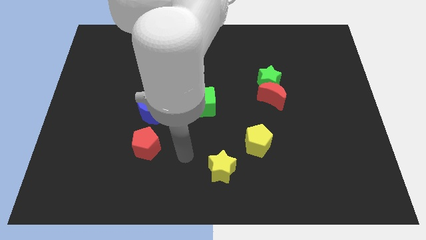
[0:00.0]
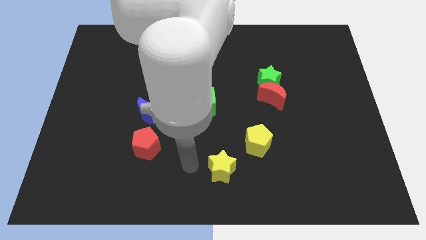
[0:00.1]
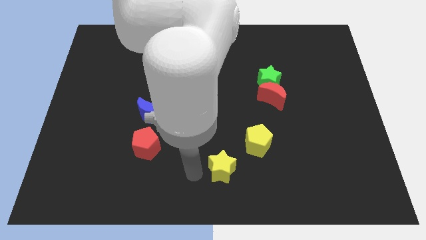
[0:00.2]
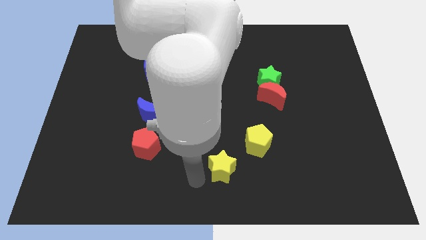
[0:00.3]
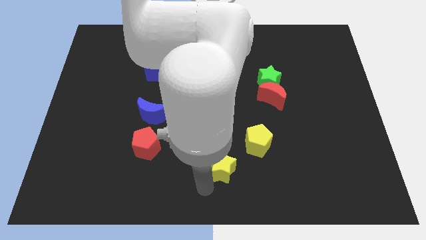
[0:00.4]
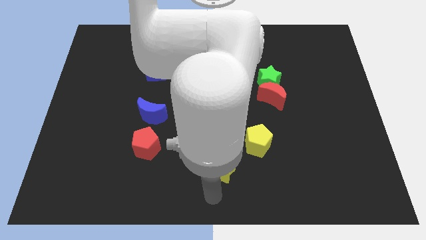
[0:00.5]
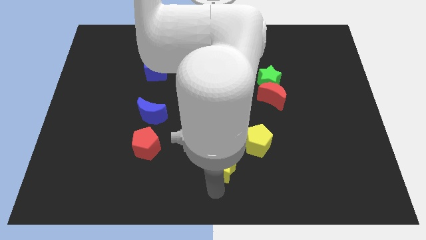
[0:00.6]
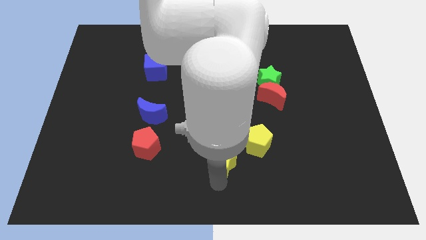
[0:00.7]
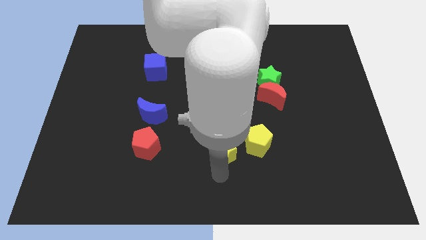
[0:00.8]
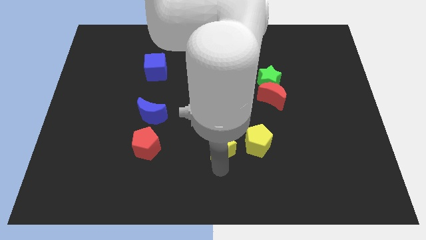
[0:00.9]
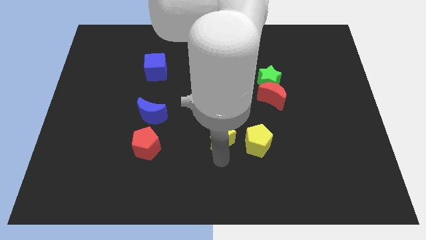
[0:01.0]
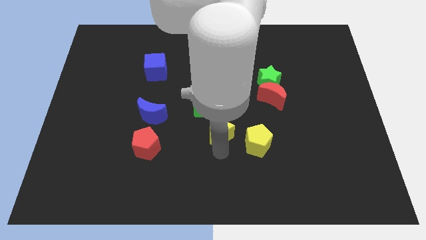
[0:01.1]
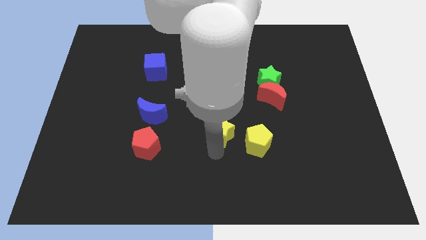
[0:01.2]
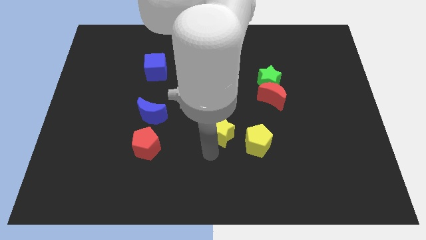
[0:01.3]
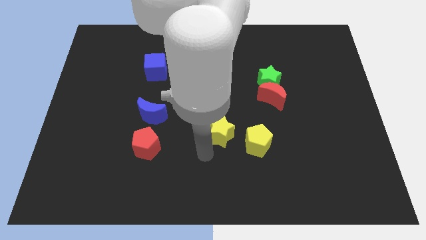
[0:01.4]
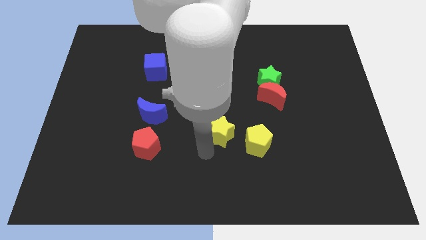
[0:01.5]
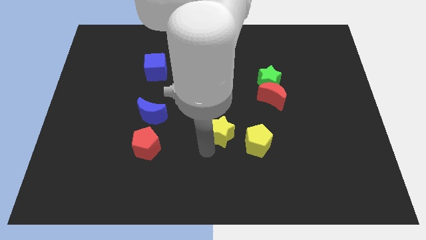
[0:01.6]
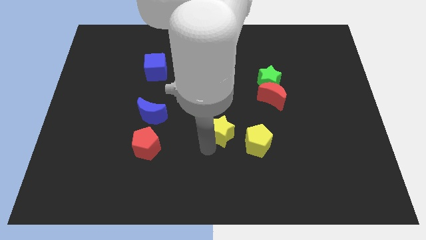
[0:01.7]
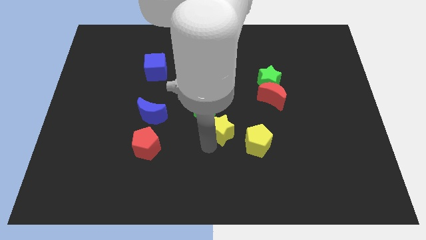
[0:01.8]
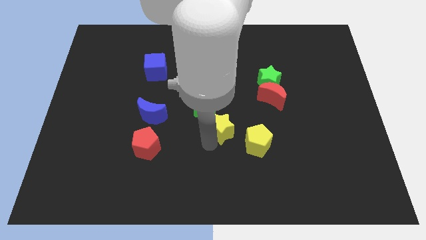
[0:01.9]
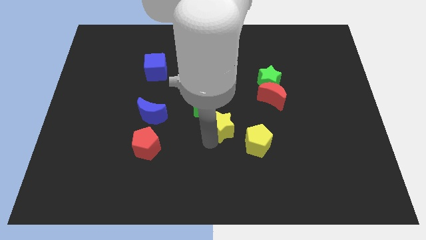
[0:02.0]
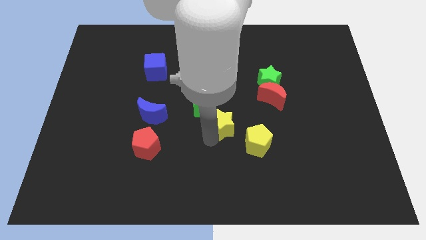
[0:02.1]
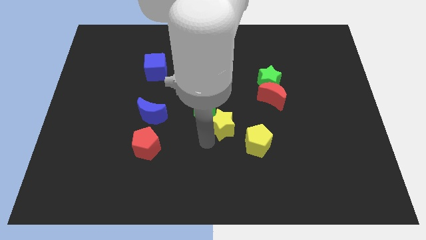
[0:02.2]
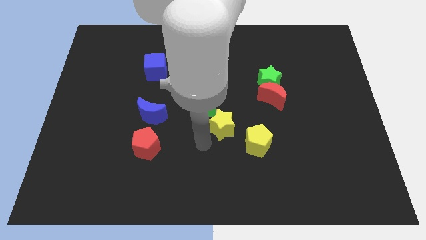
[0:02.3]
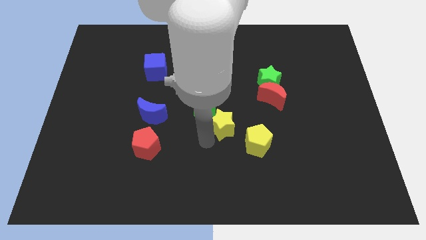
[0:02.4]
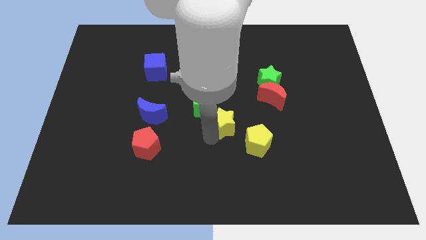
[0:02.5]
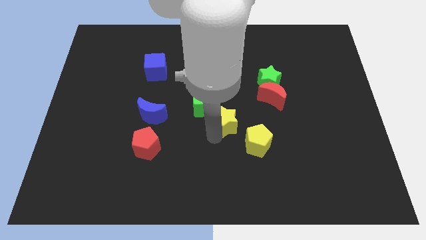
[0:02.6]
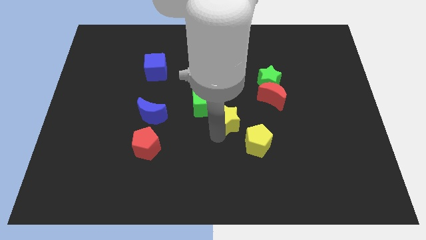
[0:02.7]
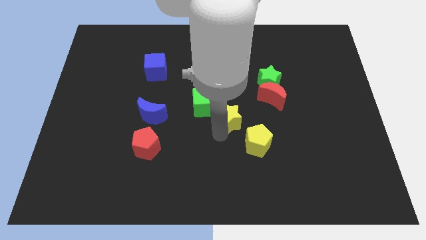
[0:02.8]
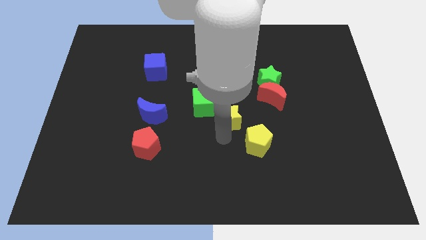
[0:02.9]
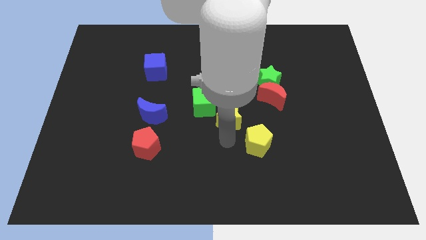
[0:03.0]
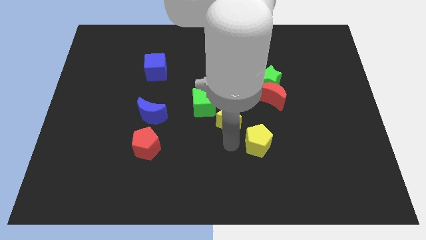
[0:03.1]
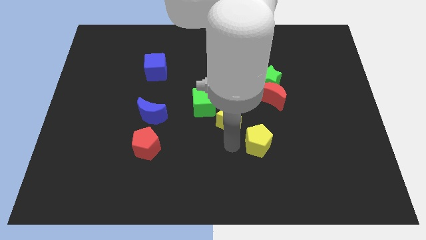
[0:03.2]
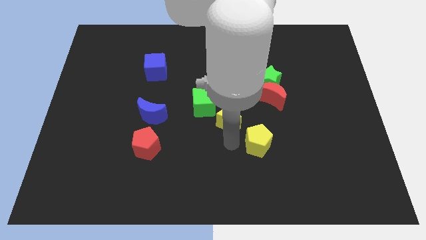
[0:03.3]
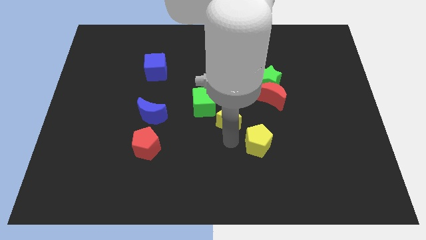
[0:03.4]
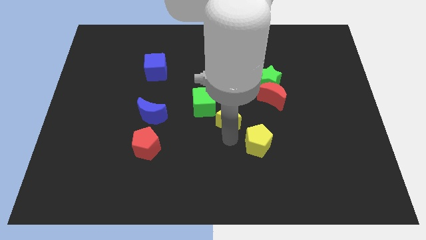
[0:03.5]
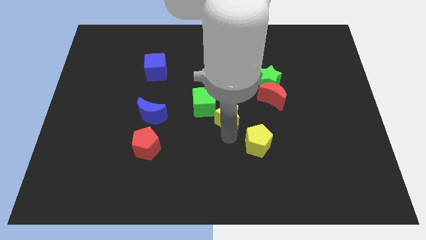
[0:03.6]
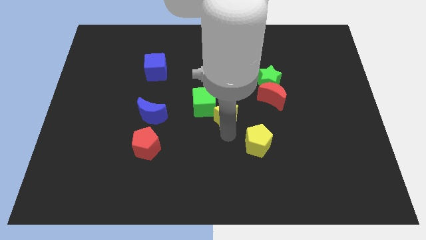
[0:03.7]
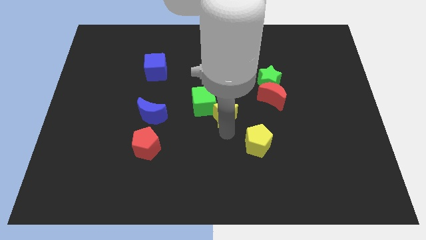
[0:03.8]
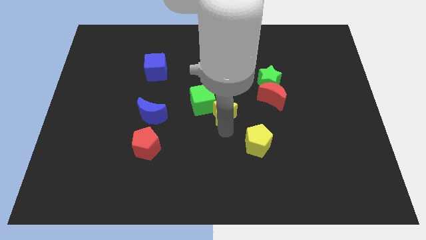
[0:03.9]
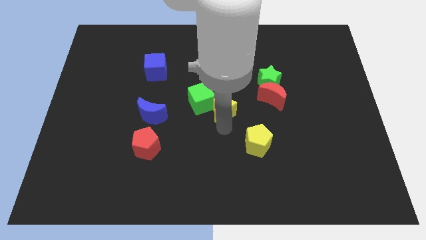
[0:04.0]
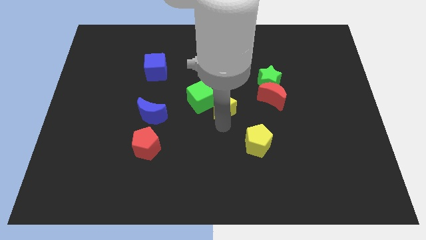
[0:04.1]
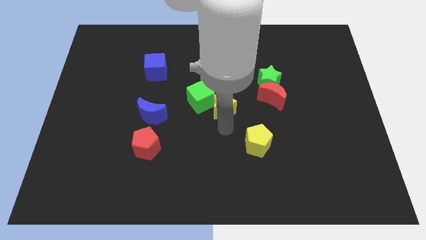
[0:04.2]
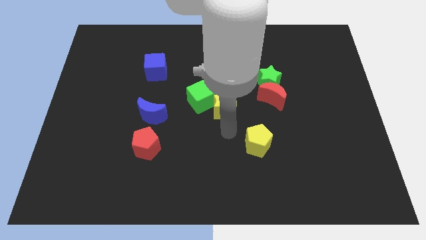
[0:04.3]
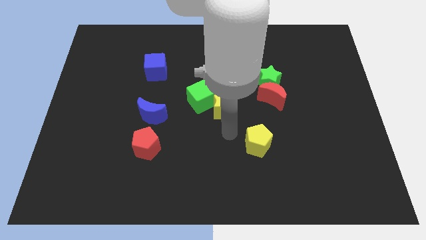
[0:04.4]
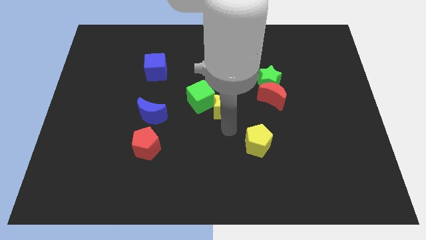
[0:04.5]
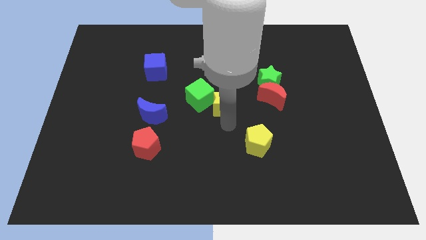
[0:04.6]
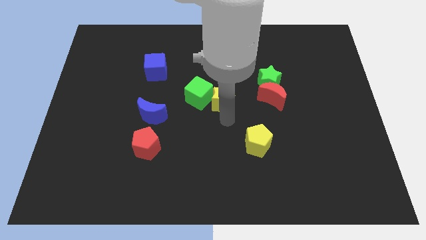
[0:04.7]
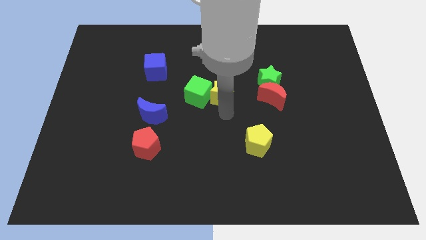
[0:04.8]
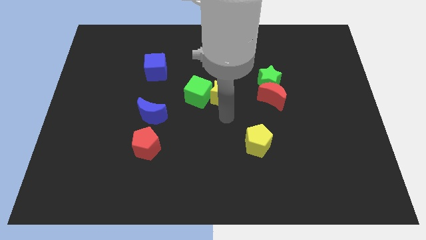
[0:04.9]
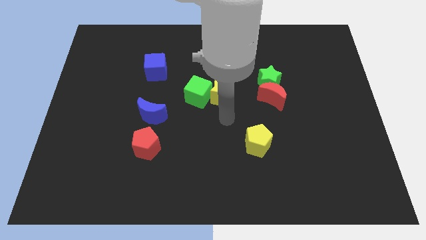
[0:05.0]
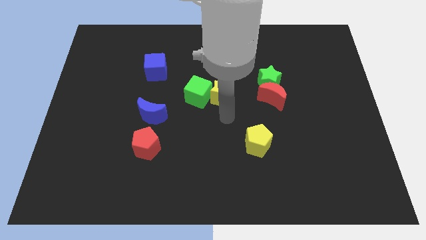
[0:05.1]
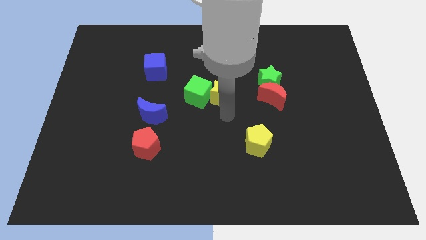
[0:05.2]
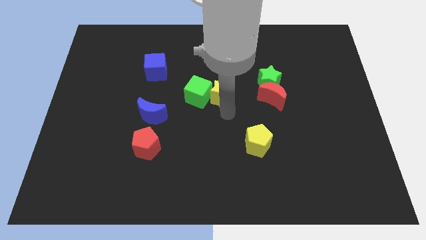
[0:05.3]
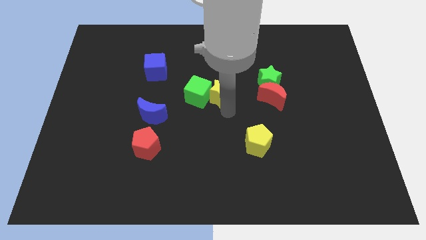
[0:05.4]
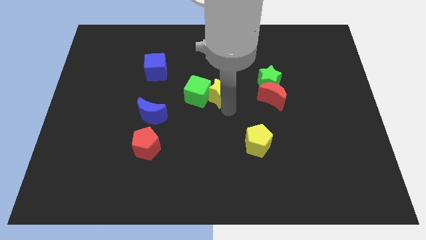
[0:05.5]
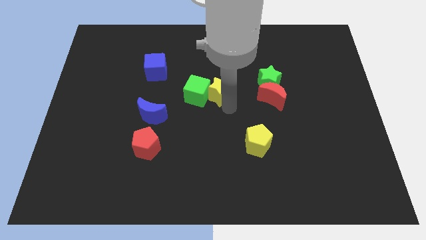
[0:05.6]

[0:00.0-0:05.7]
push the yellow star up

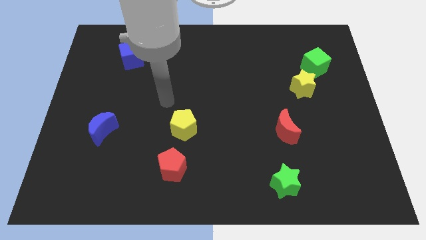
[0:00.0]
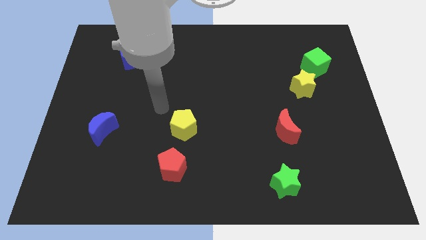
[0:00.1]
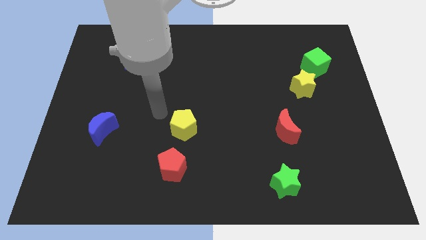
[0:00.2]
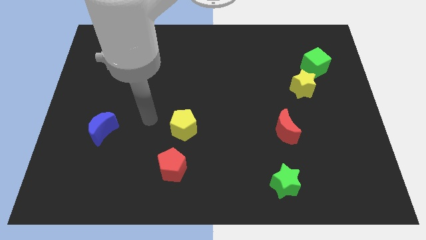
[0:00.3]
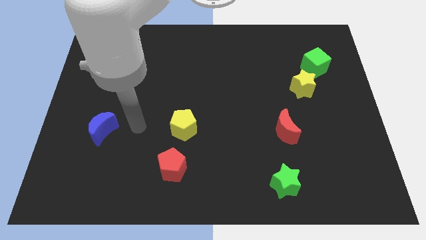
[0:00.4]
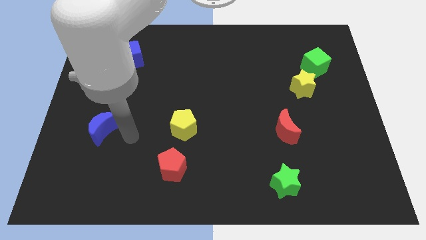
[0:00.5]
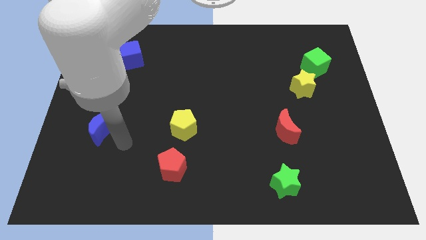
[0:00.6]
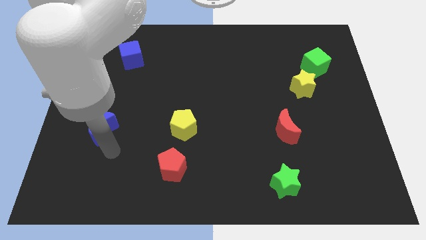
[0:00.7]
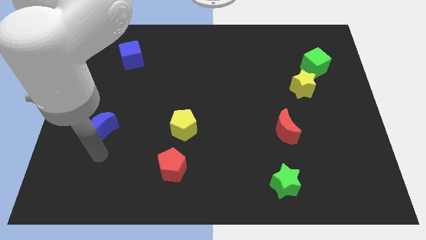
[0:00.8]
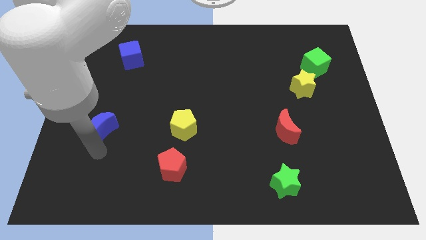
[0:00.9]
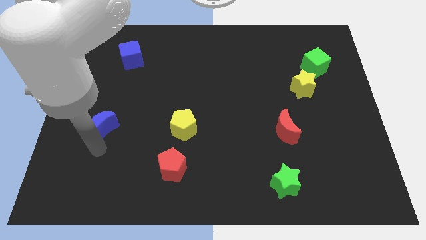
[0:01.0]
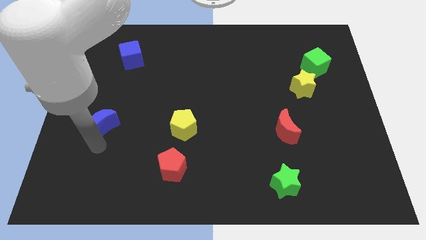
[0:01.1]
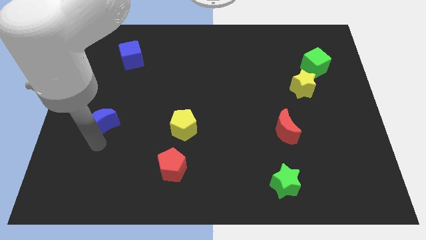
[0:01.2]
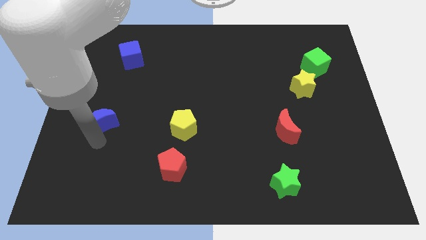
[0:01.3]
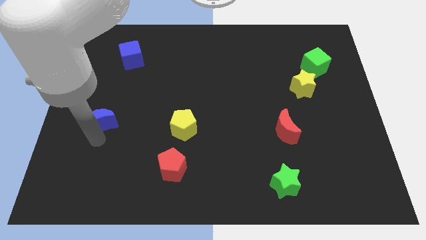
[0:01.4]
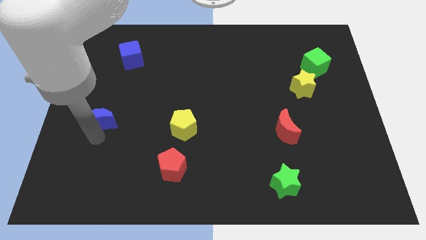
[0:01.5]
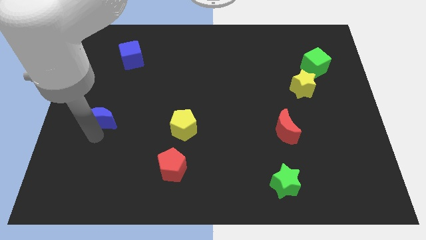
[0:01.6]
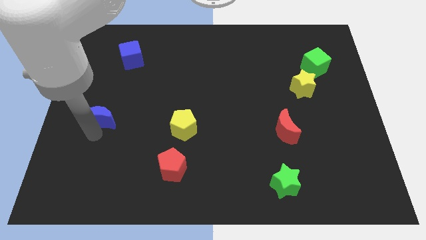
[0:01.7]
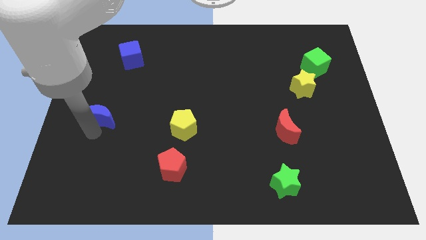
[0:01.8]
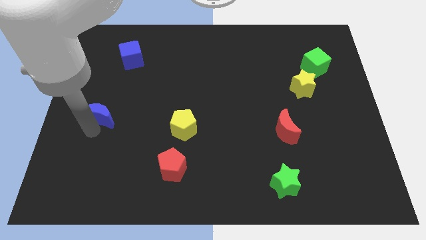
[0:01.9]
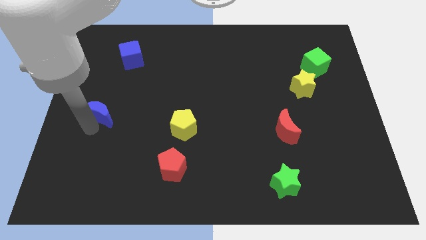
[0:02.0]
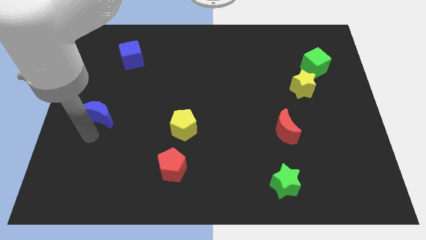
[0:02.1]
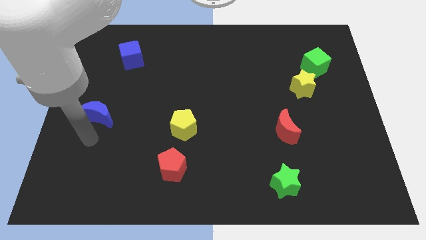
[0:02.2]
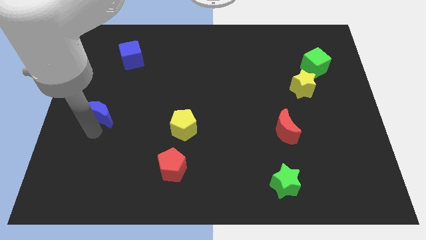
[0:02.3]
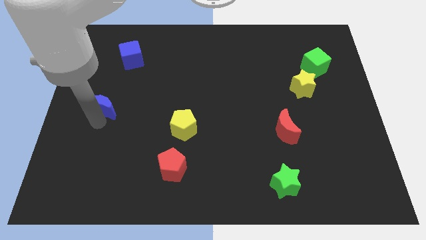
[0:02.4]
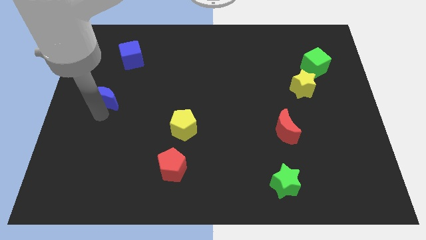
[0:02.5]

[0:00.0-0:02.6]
slide the blue moon a bit up
